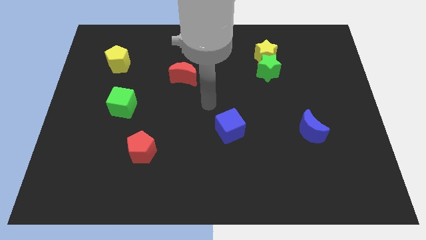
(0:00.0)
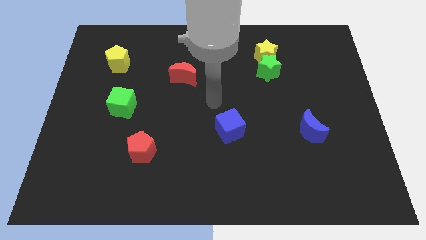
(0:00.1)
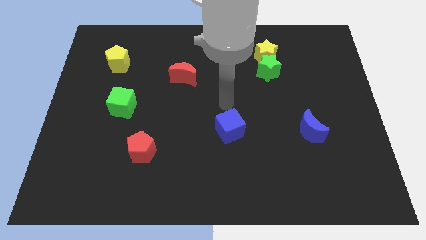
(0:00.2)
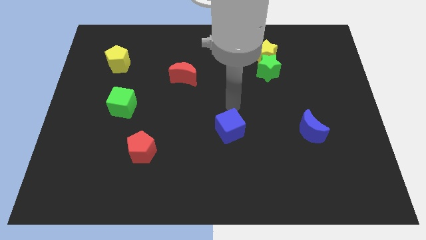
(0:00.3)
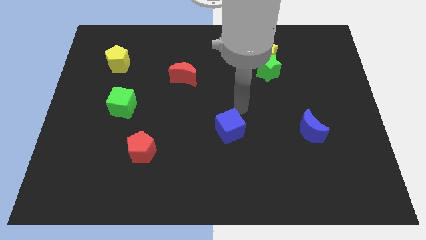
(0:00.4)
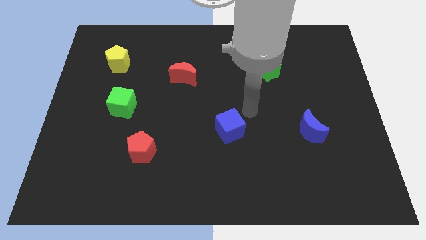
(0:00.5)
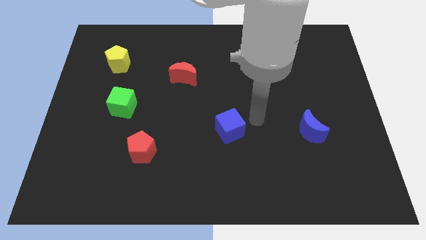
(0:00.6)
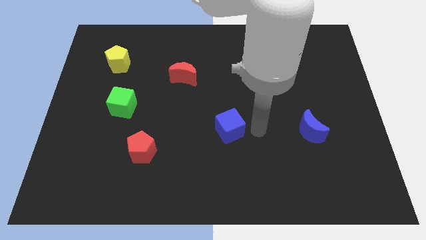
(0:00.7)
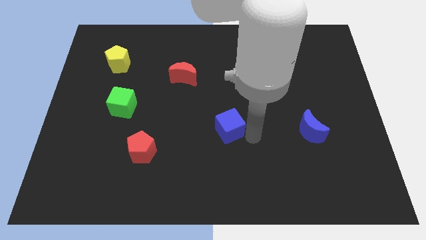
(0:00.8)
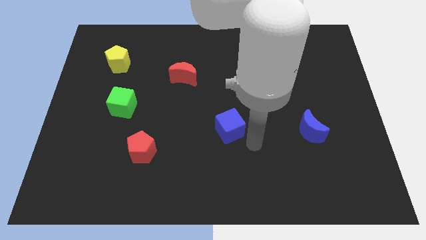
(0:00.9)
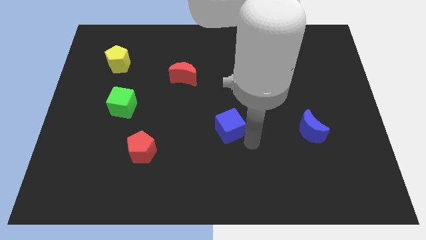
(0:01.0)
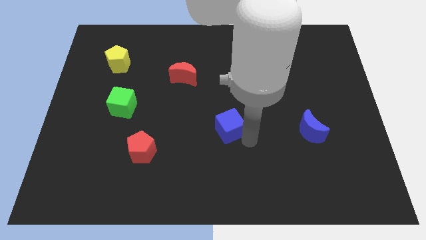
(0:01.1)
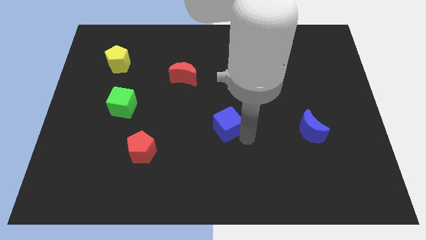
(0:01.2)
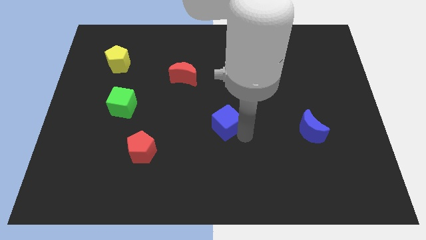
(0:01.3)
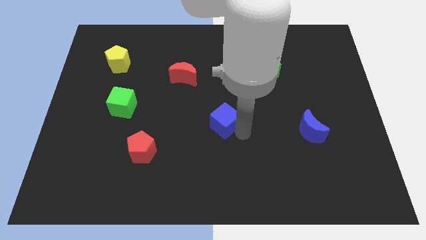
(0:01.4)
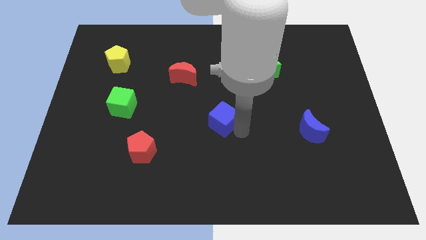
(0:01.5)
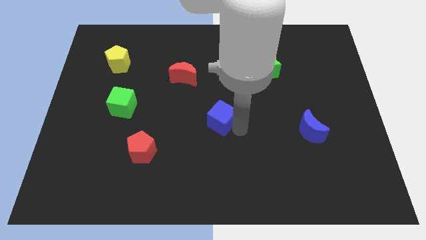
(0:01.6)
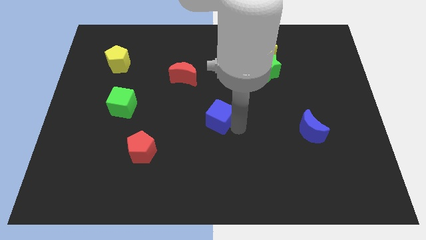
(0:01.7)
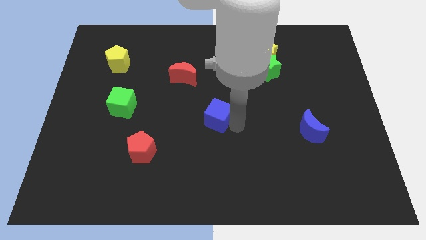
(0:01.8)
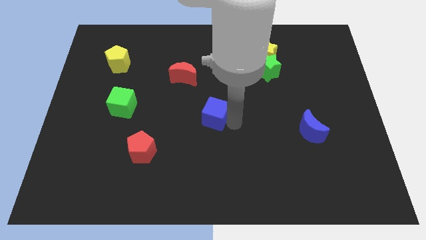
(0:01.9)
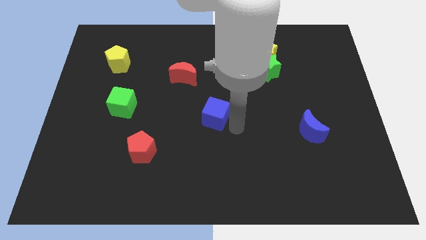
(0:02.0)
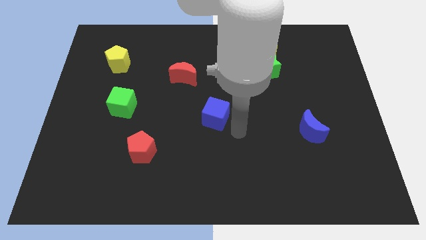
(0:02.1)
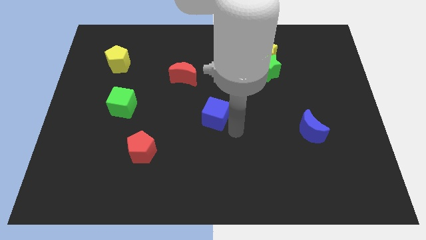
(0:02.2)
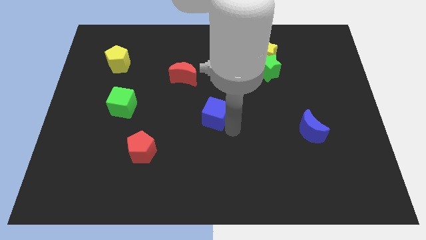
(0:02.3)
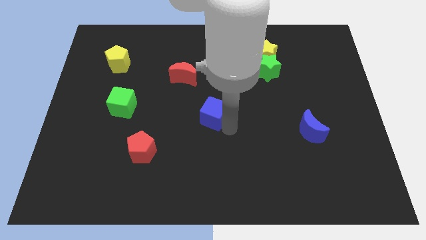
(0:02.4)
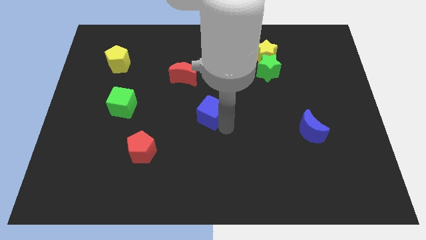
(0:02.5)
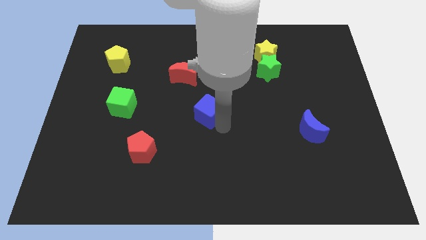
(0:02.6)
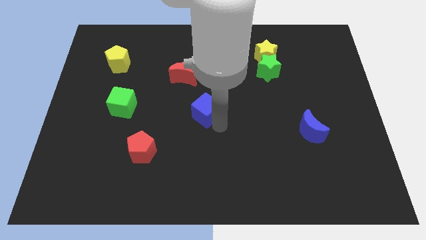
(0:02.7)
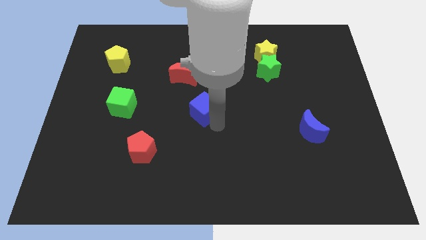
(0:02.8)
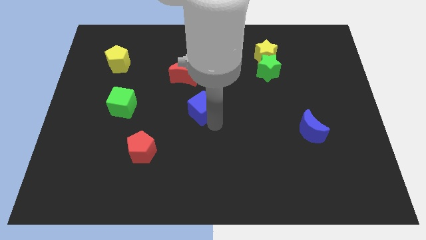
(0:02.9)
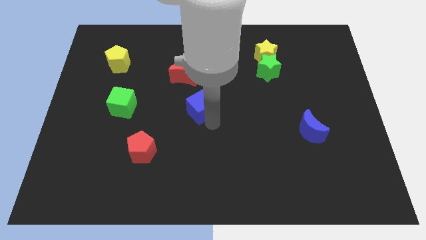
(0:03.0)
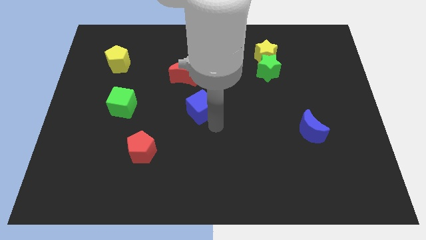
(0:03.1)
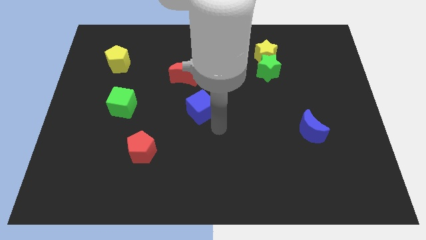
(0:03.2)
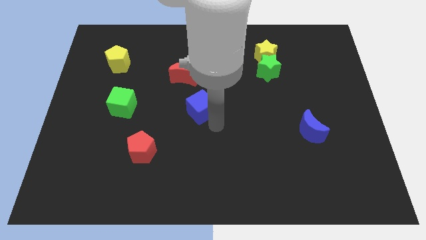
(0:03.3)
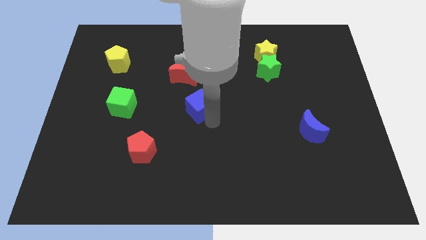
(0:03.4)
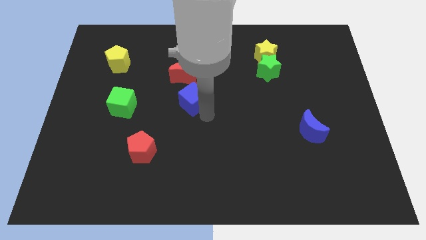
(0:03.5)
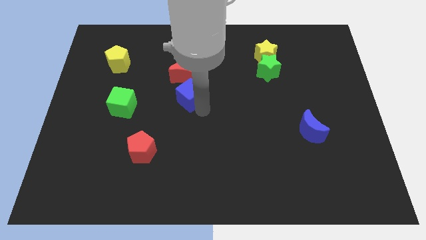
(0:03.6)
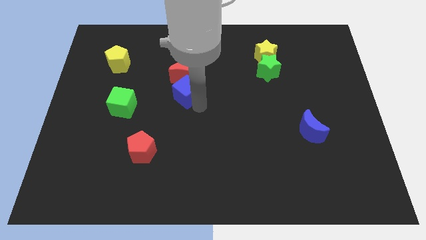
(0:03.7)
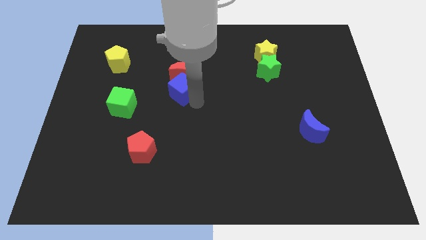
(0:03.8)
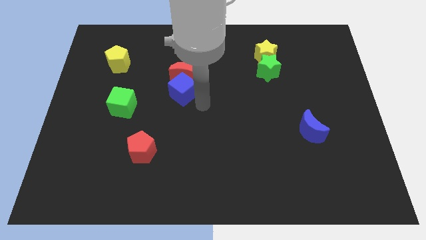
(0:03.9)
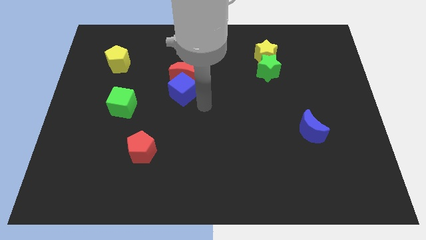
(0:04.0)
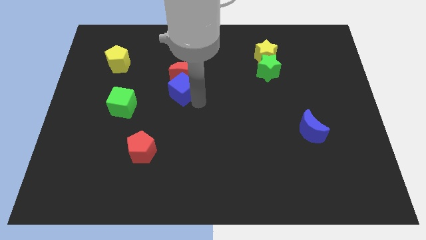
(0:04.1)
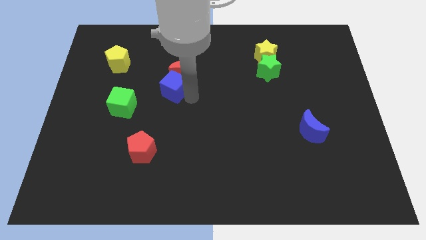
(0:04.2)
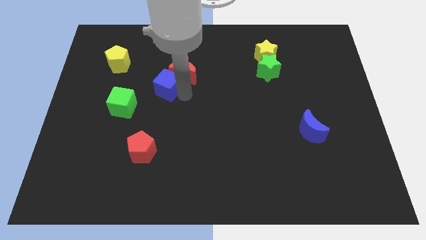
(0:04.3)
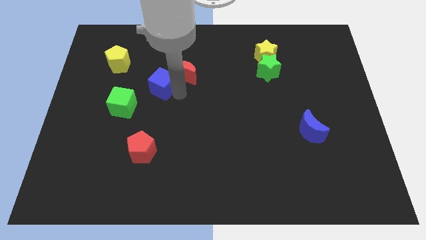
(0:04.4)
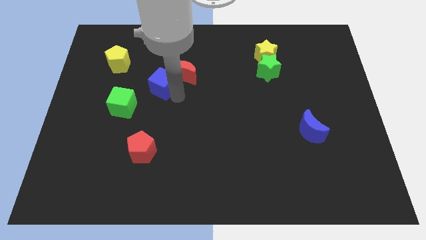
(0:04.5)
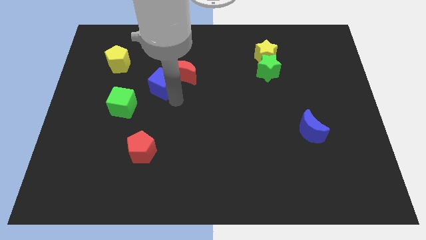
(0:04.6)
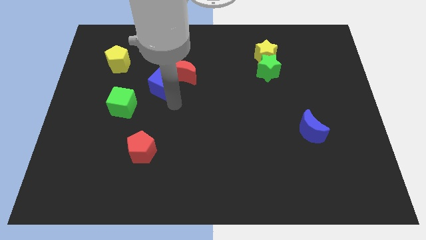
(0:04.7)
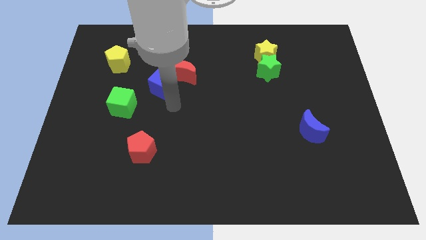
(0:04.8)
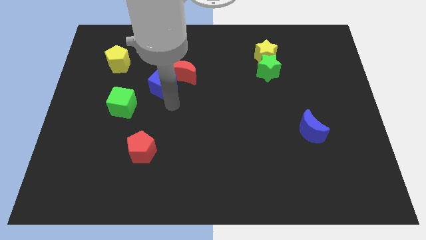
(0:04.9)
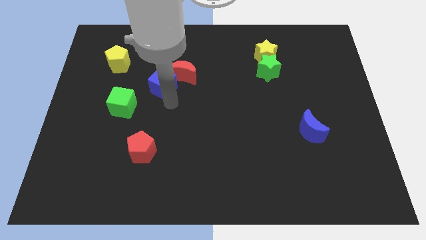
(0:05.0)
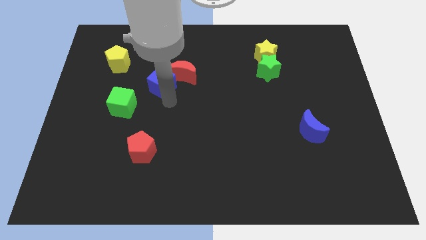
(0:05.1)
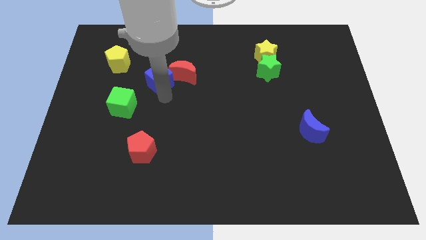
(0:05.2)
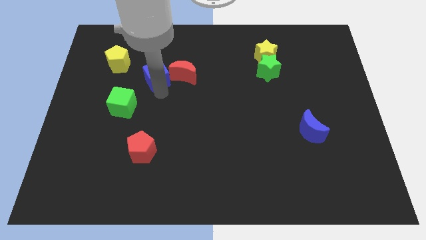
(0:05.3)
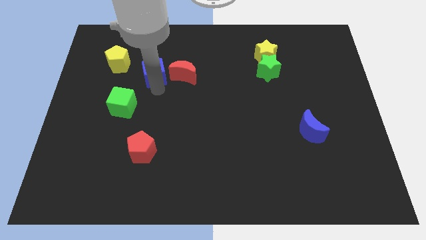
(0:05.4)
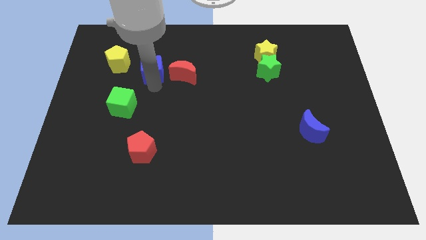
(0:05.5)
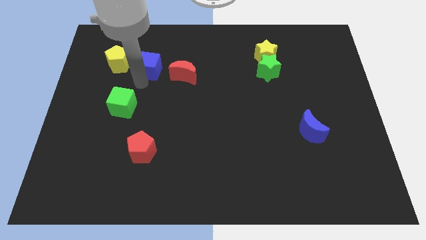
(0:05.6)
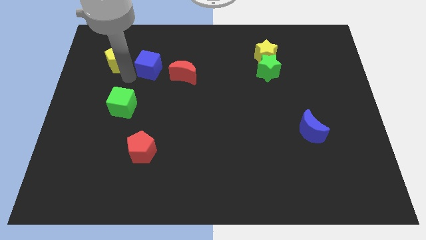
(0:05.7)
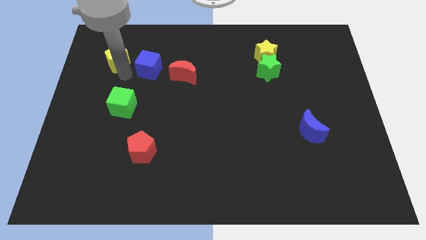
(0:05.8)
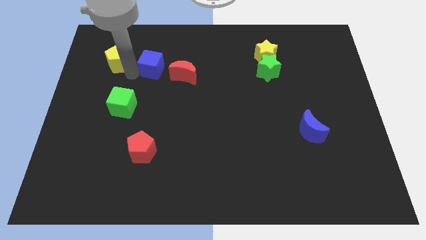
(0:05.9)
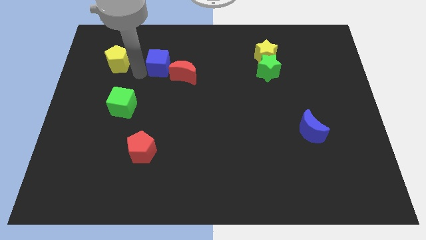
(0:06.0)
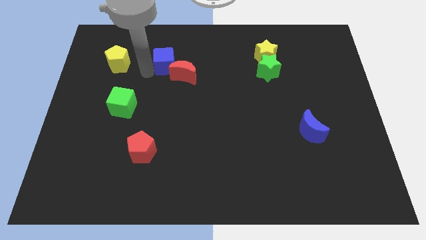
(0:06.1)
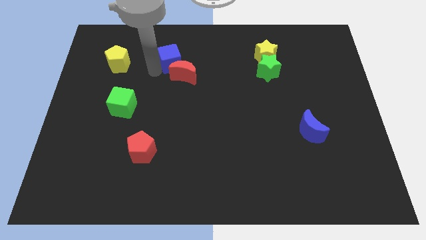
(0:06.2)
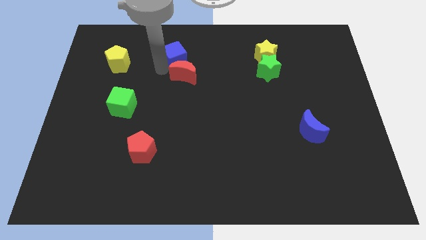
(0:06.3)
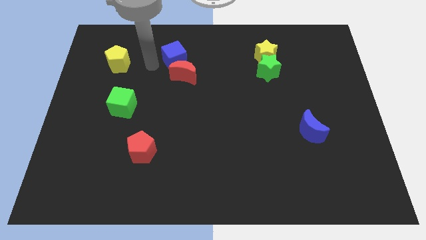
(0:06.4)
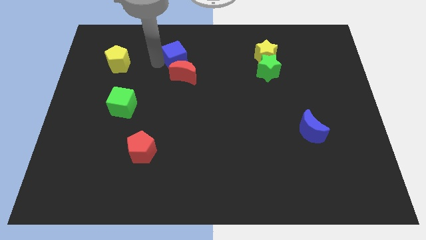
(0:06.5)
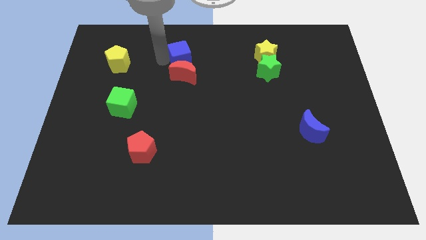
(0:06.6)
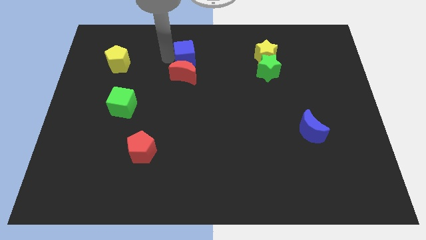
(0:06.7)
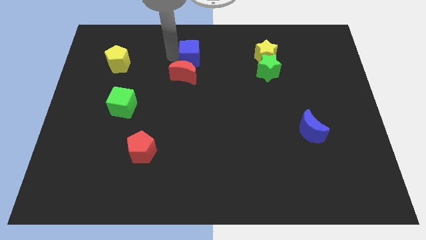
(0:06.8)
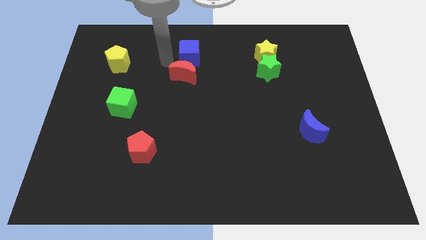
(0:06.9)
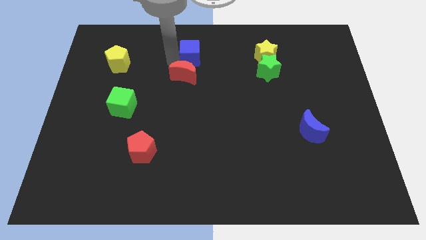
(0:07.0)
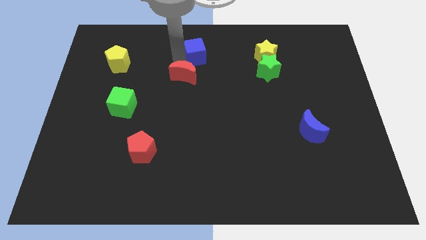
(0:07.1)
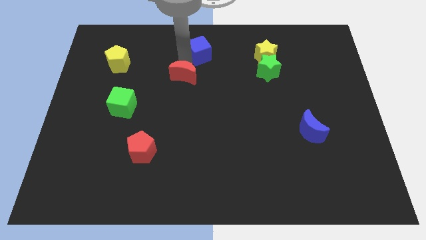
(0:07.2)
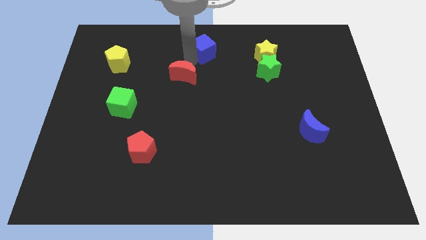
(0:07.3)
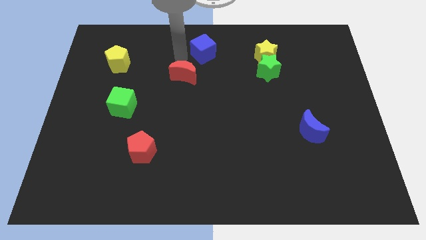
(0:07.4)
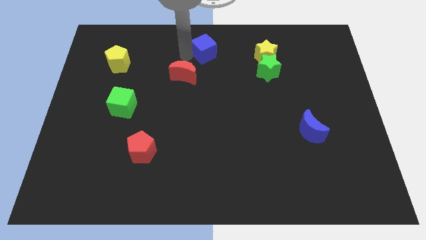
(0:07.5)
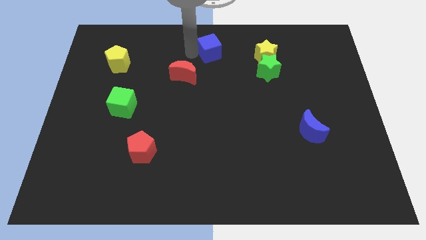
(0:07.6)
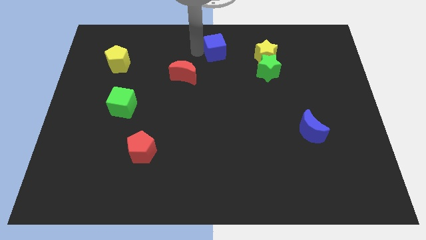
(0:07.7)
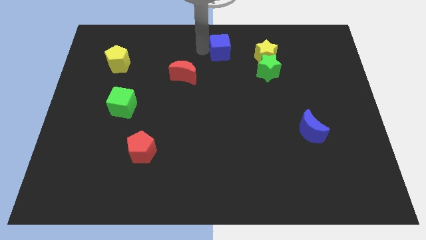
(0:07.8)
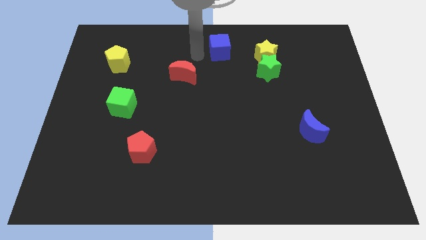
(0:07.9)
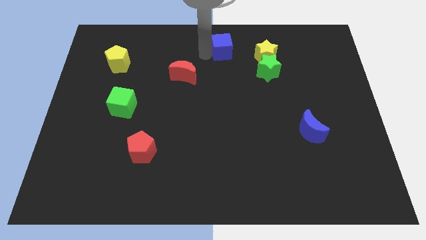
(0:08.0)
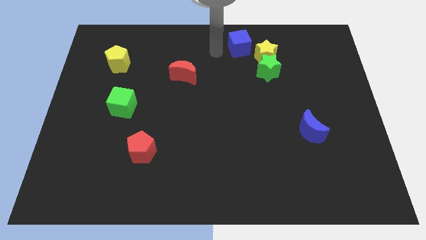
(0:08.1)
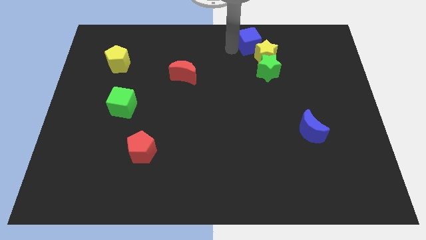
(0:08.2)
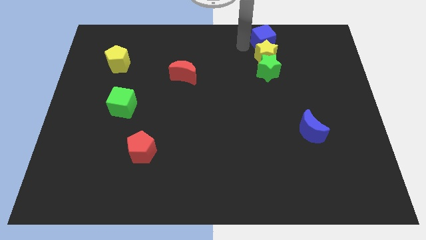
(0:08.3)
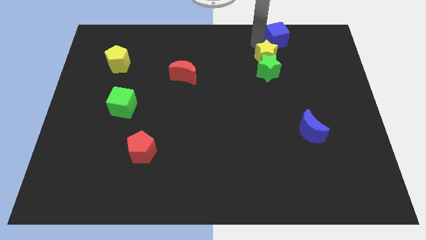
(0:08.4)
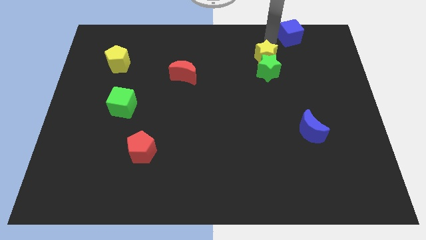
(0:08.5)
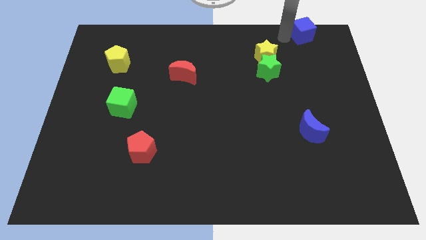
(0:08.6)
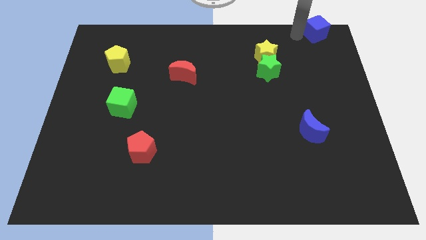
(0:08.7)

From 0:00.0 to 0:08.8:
move the blue cube to the upper right corner

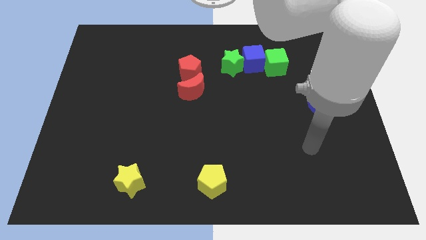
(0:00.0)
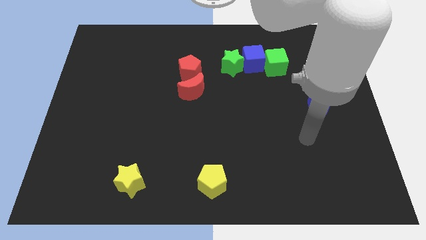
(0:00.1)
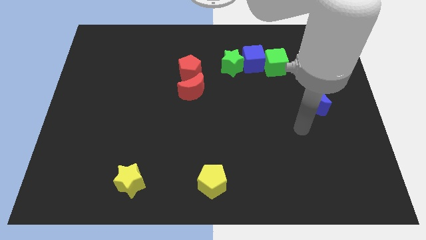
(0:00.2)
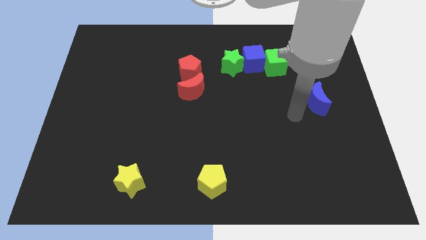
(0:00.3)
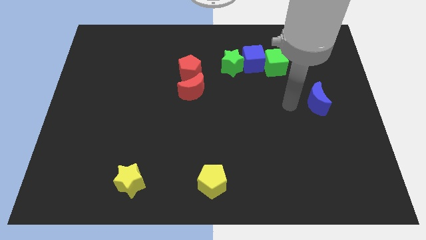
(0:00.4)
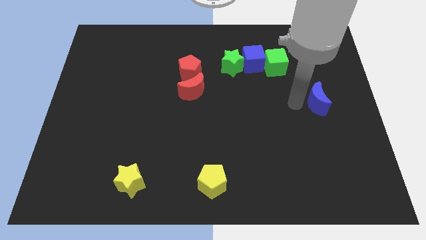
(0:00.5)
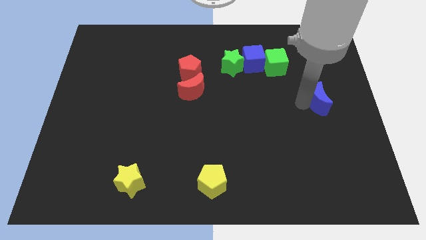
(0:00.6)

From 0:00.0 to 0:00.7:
move the blue moon to the right side of the board
